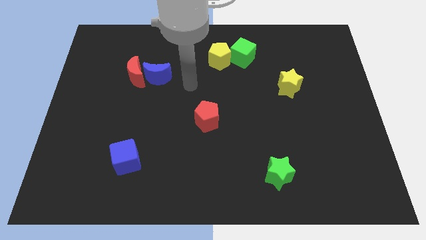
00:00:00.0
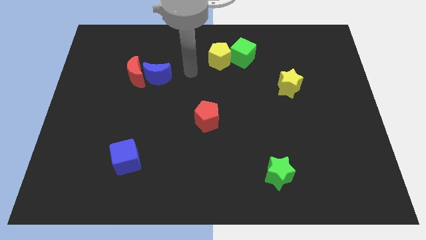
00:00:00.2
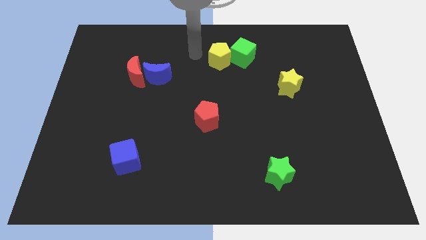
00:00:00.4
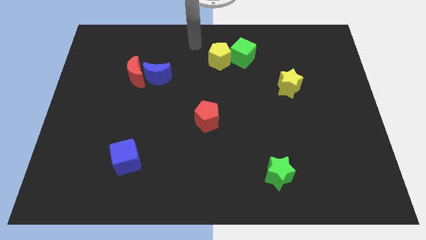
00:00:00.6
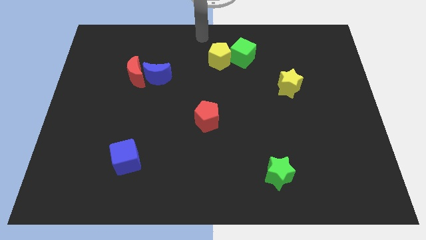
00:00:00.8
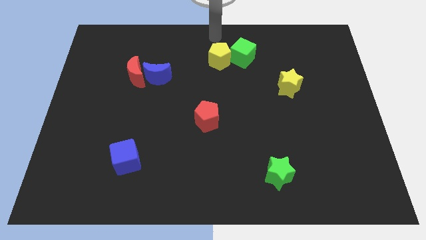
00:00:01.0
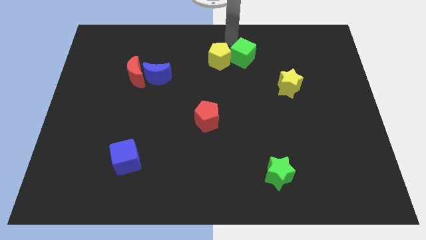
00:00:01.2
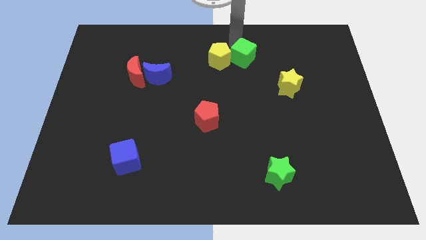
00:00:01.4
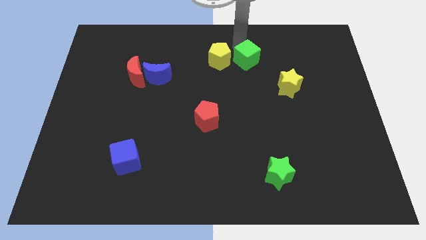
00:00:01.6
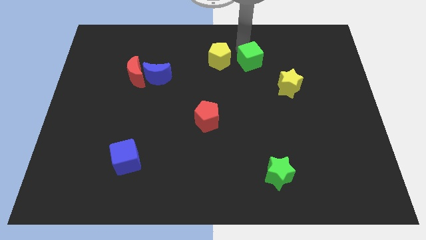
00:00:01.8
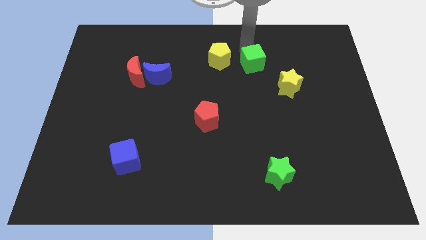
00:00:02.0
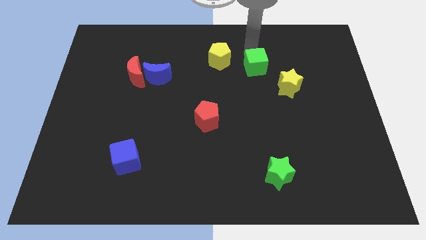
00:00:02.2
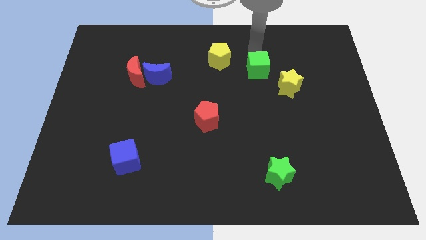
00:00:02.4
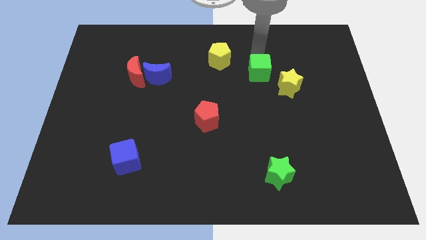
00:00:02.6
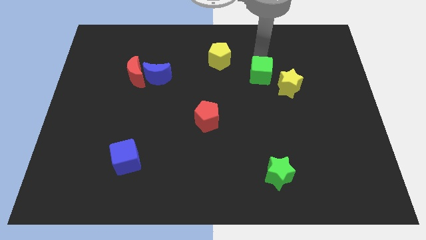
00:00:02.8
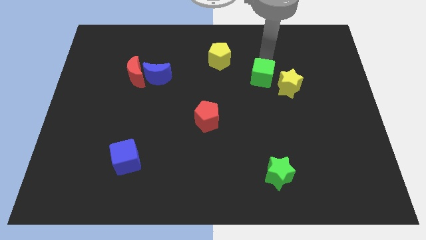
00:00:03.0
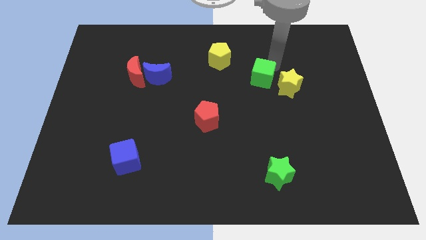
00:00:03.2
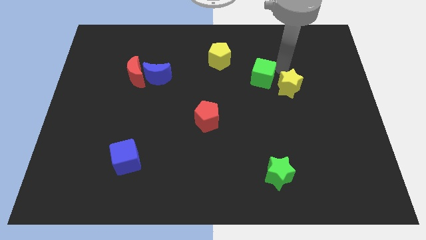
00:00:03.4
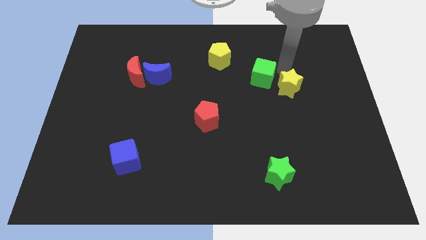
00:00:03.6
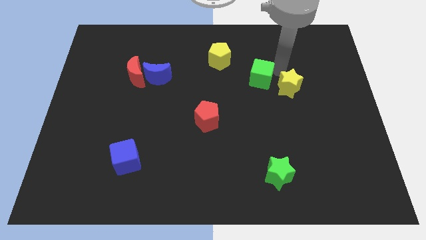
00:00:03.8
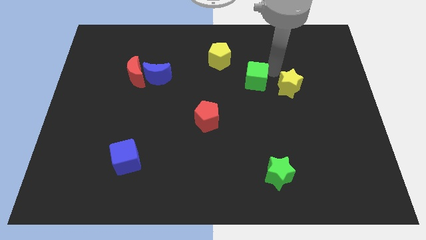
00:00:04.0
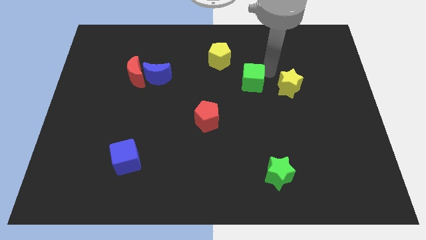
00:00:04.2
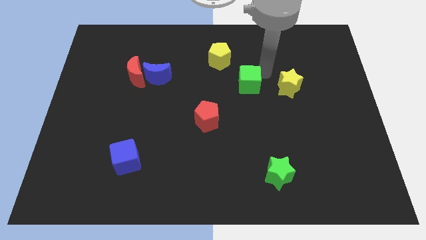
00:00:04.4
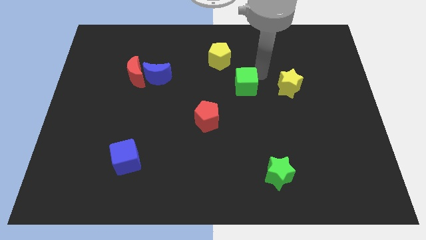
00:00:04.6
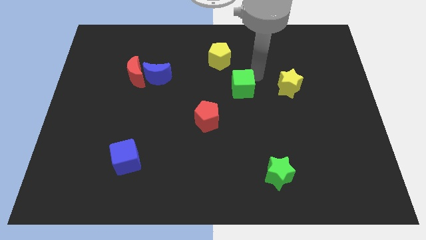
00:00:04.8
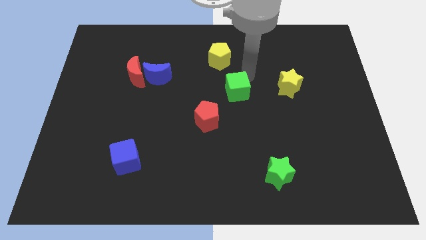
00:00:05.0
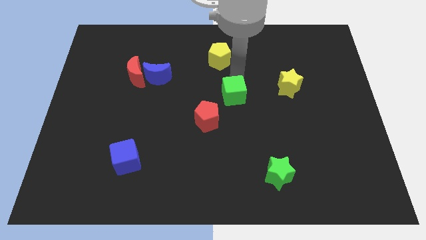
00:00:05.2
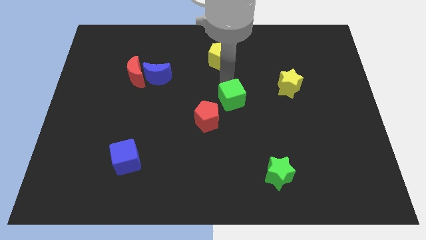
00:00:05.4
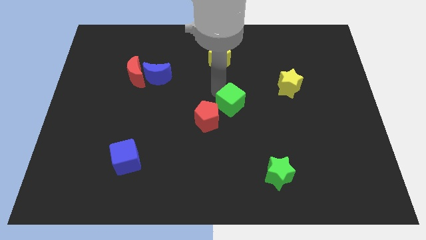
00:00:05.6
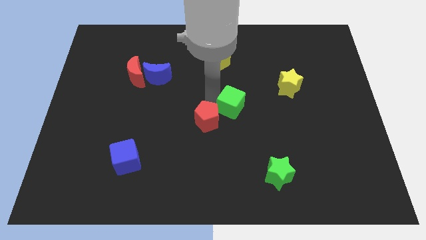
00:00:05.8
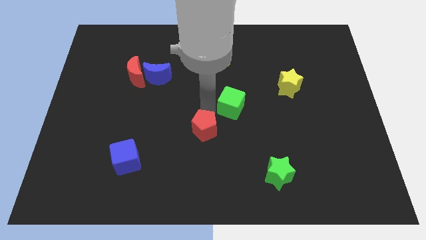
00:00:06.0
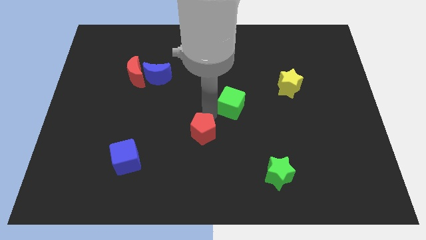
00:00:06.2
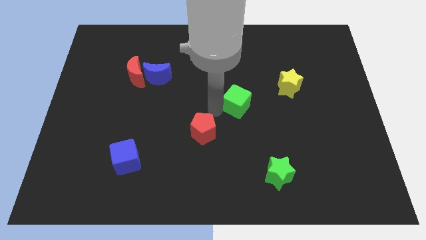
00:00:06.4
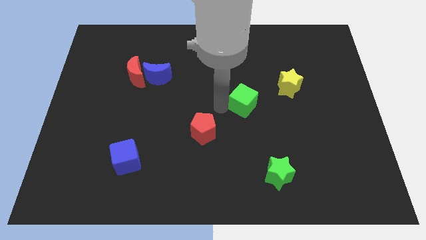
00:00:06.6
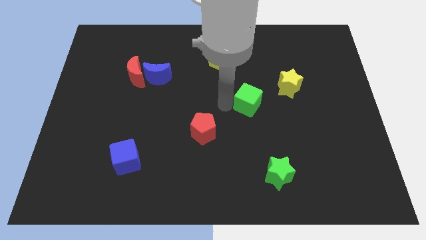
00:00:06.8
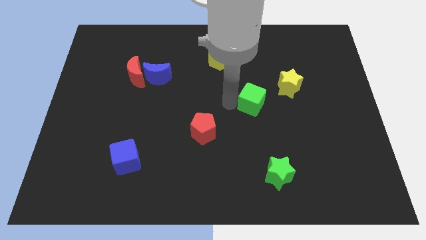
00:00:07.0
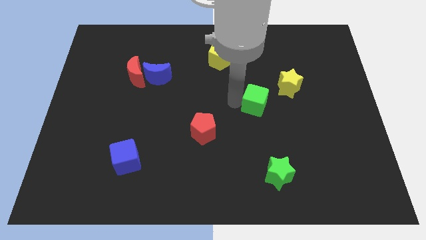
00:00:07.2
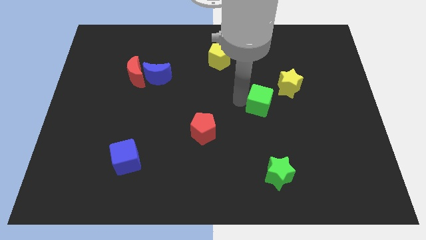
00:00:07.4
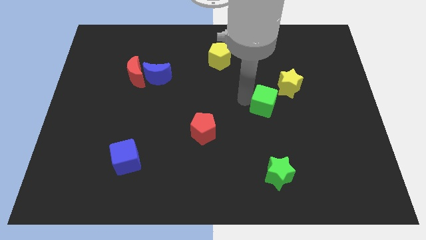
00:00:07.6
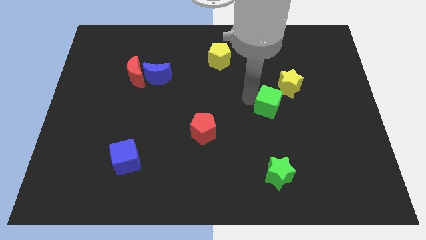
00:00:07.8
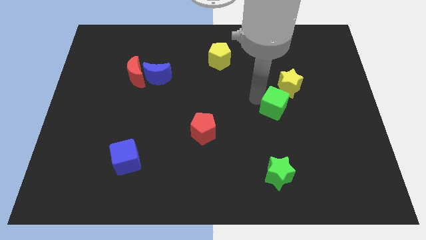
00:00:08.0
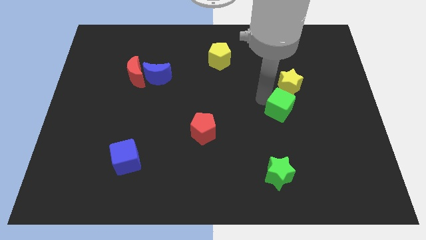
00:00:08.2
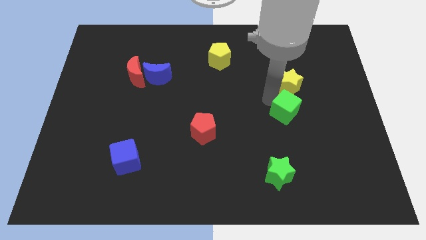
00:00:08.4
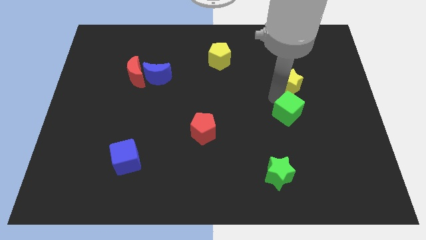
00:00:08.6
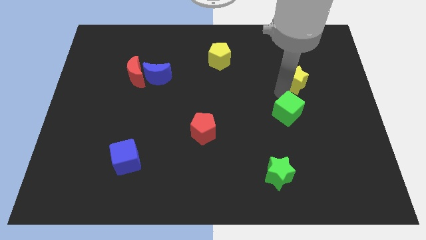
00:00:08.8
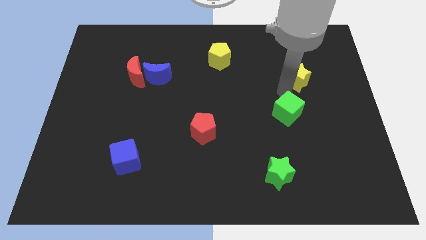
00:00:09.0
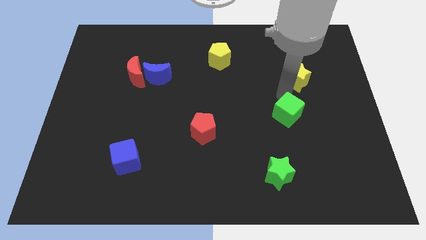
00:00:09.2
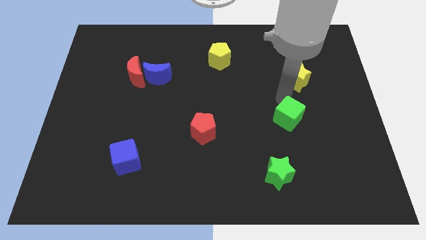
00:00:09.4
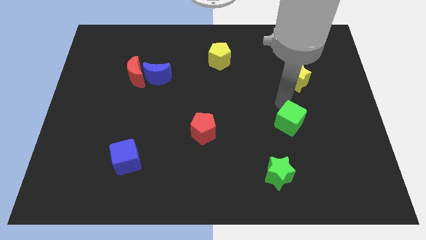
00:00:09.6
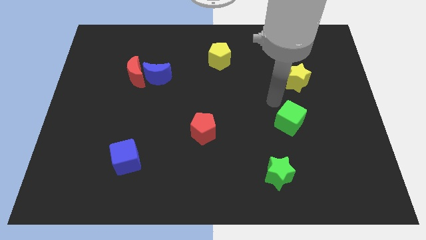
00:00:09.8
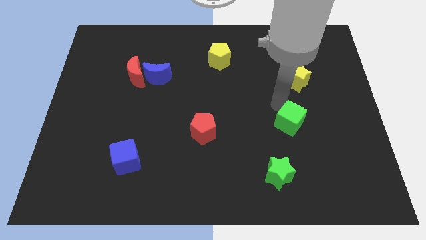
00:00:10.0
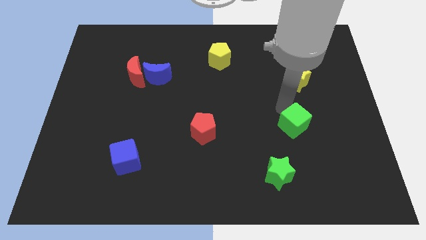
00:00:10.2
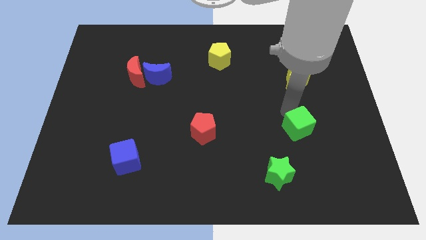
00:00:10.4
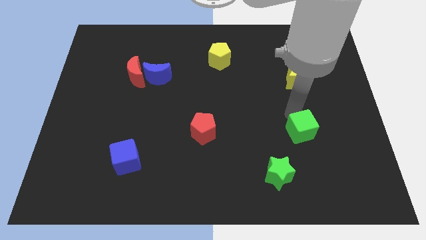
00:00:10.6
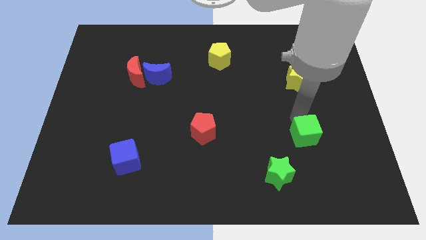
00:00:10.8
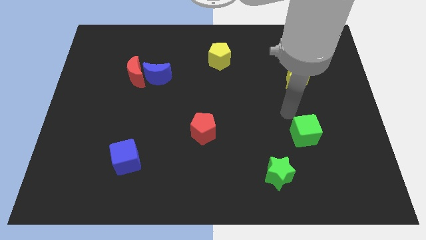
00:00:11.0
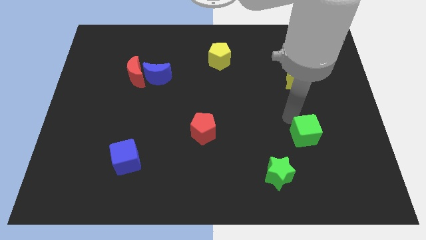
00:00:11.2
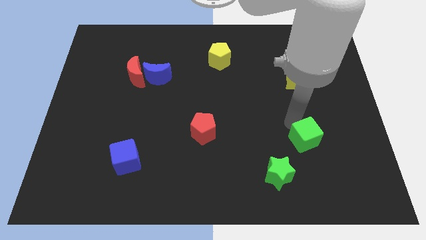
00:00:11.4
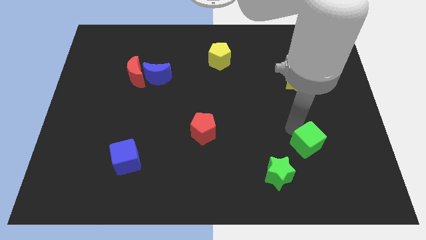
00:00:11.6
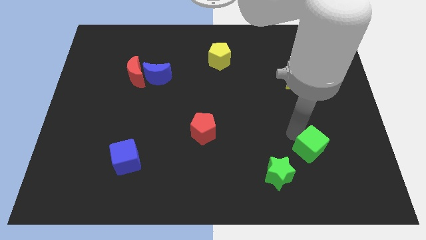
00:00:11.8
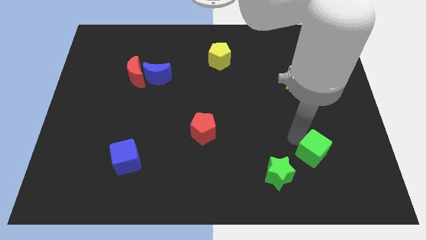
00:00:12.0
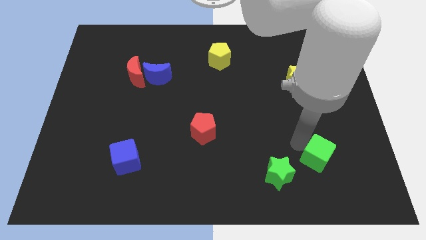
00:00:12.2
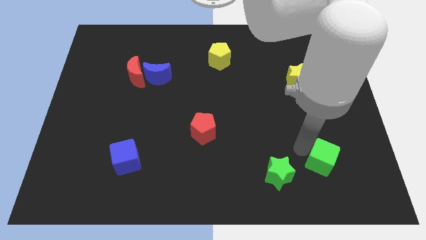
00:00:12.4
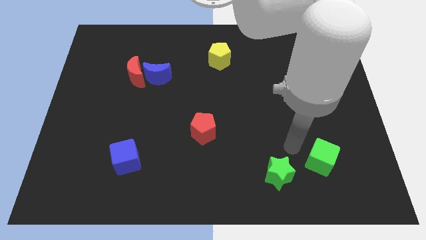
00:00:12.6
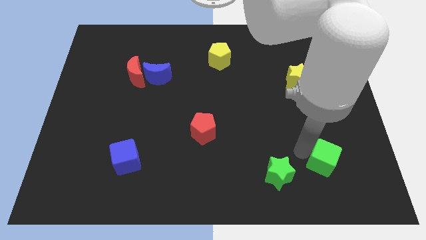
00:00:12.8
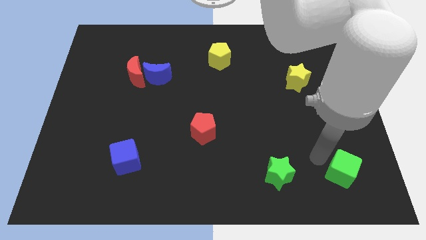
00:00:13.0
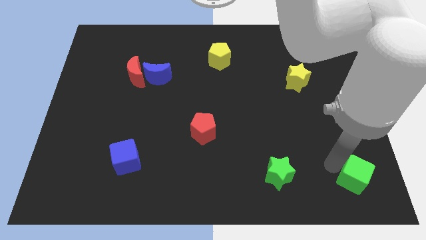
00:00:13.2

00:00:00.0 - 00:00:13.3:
put the green cube to the lower right corner
